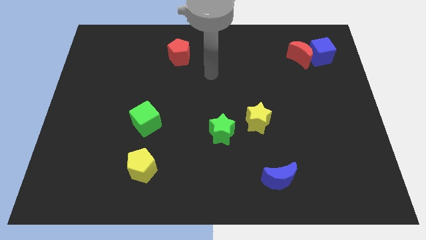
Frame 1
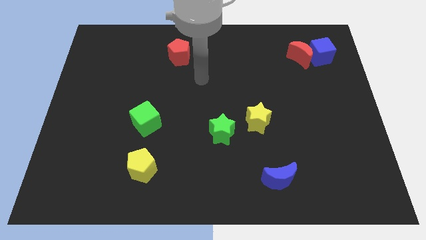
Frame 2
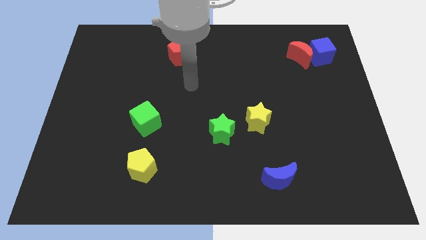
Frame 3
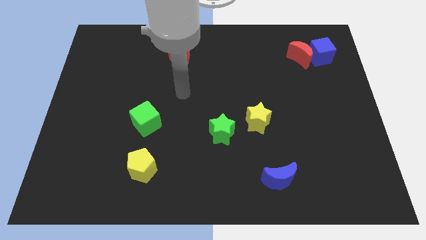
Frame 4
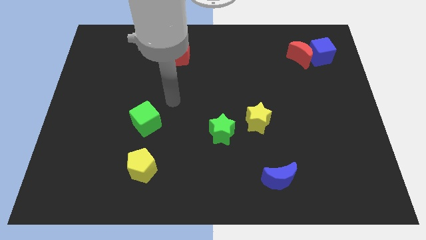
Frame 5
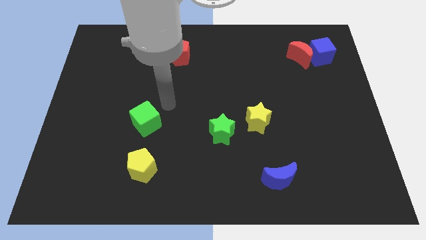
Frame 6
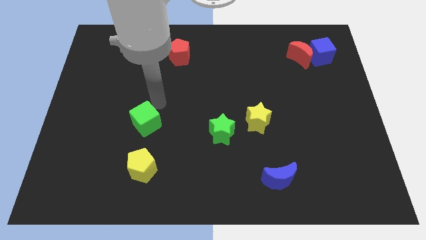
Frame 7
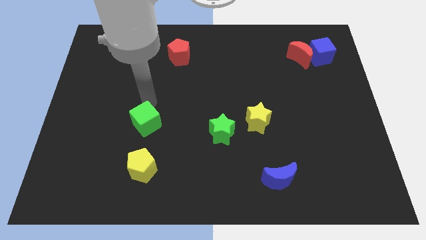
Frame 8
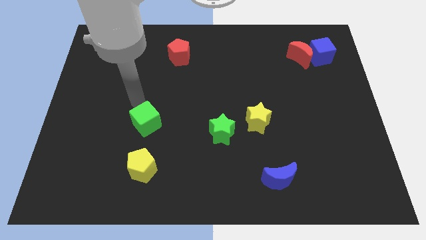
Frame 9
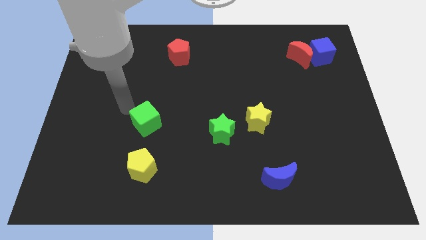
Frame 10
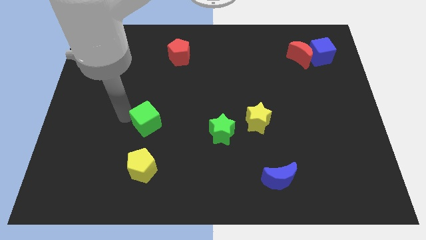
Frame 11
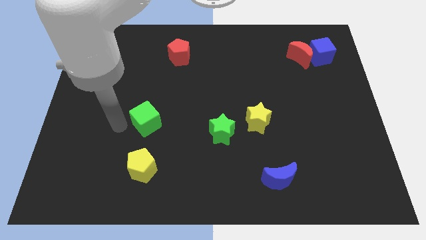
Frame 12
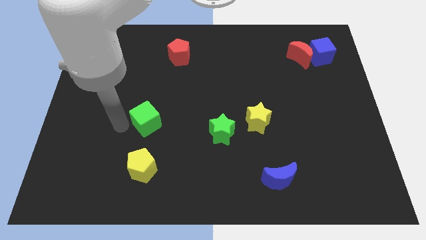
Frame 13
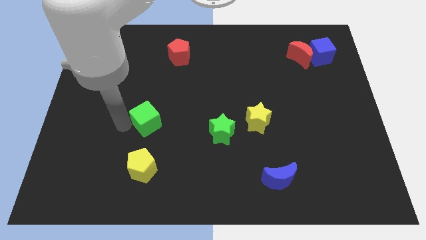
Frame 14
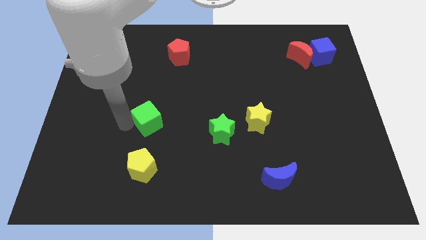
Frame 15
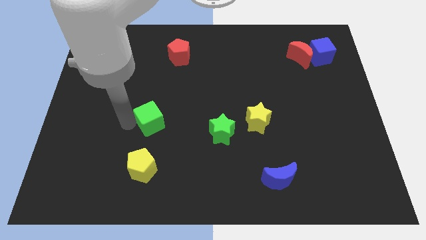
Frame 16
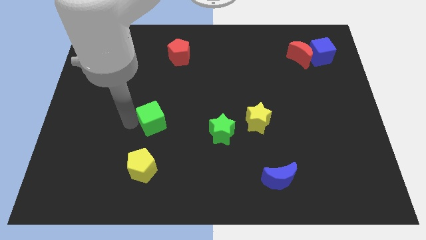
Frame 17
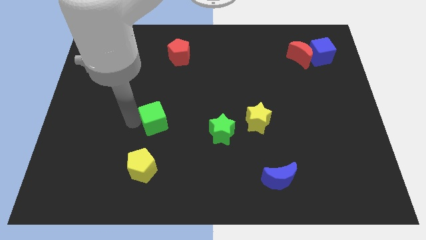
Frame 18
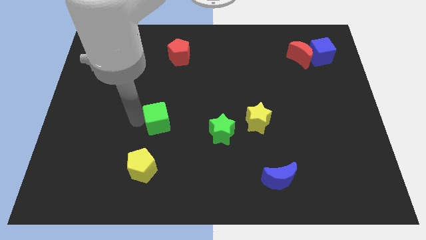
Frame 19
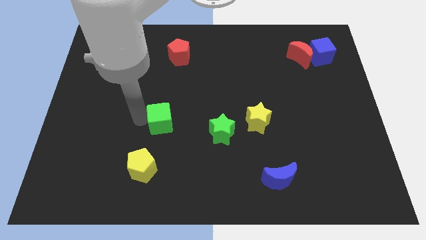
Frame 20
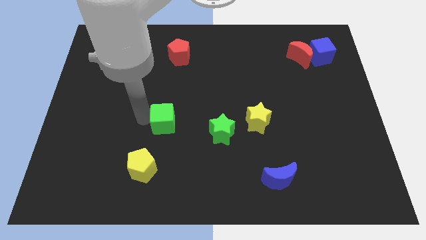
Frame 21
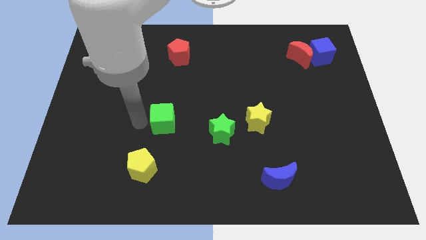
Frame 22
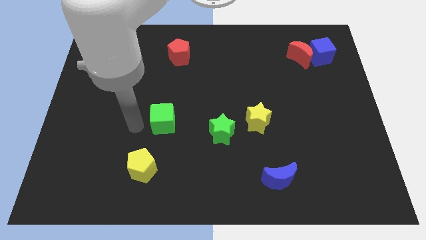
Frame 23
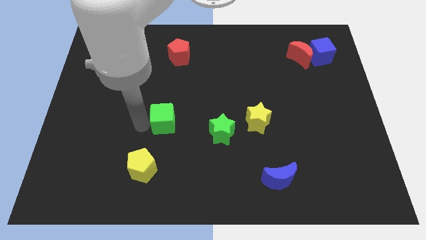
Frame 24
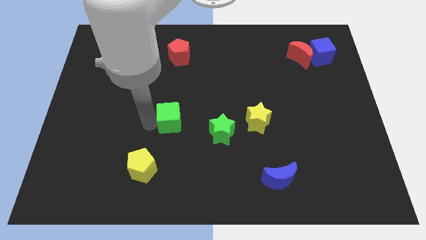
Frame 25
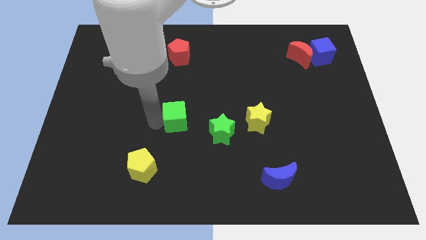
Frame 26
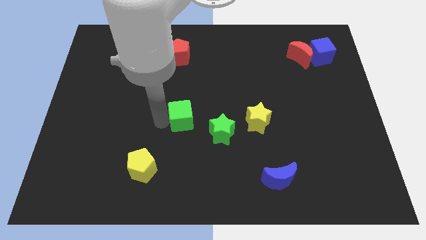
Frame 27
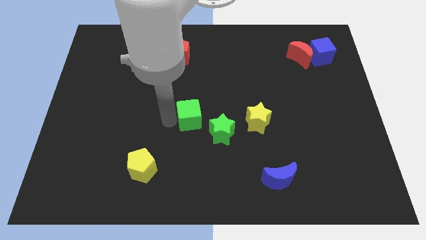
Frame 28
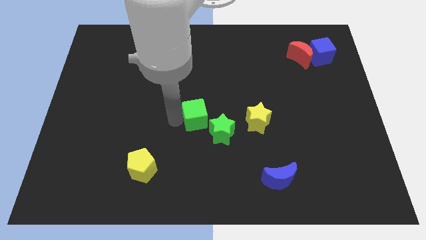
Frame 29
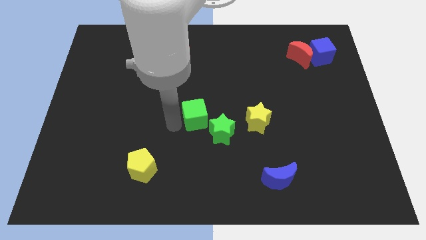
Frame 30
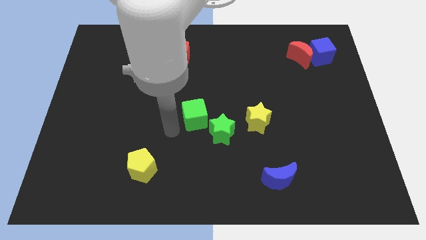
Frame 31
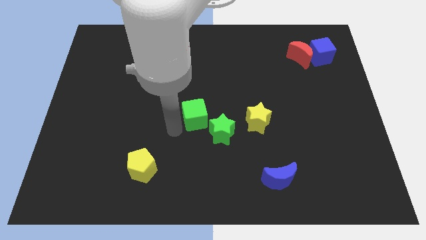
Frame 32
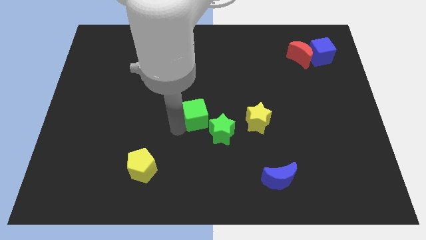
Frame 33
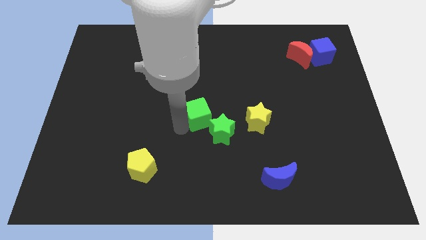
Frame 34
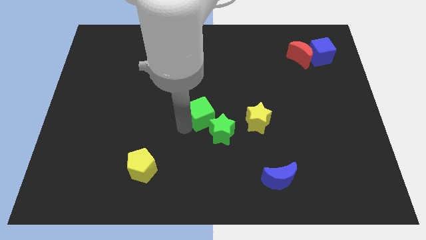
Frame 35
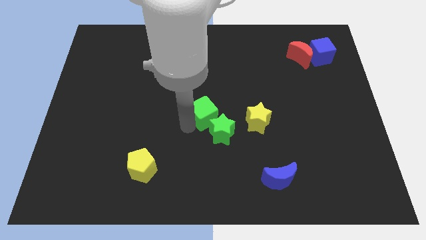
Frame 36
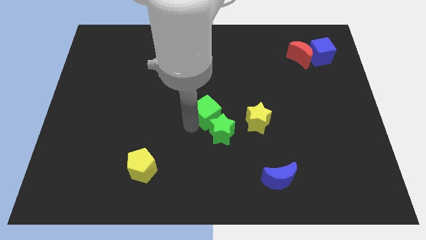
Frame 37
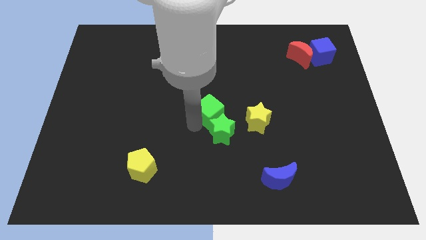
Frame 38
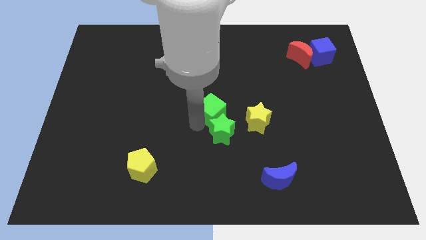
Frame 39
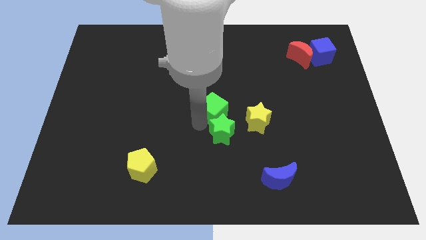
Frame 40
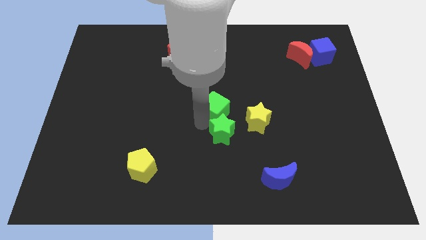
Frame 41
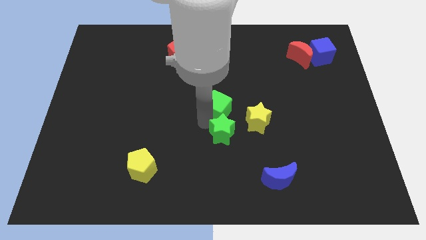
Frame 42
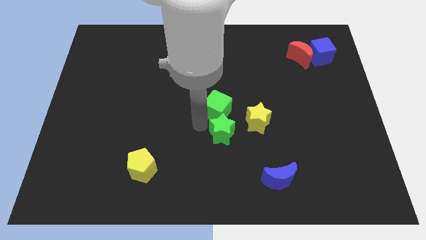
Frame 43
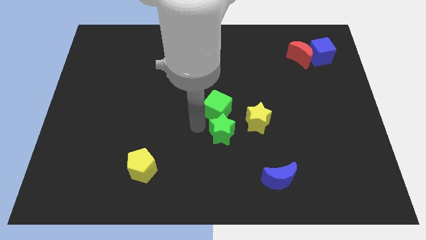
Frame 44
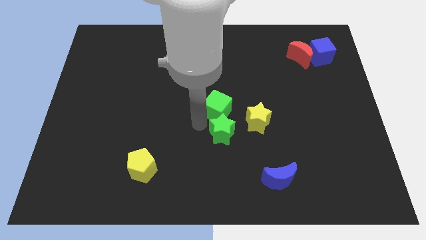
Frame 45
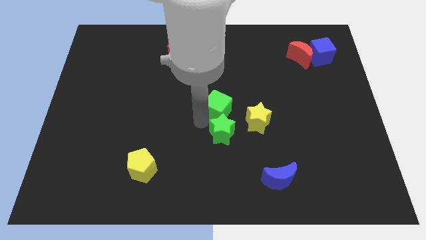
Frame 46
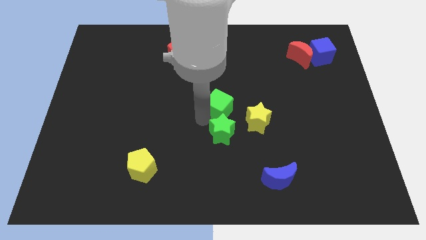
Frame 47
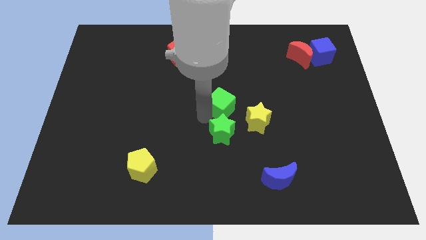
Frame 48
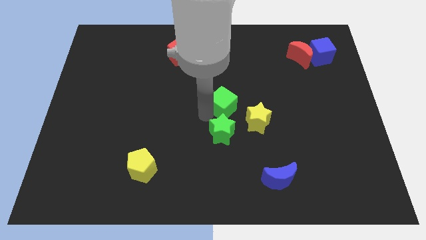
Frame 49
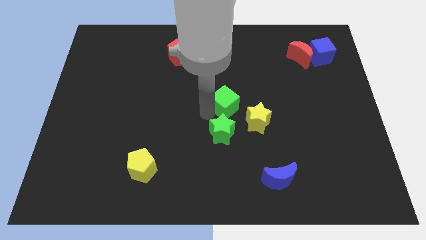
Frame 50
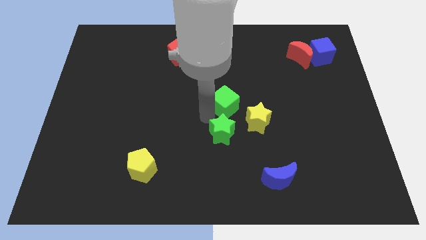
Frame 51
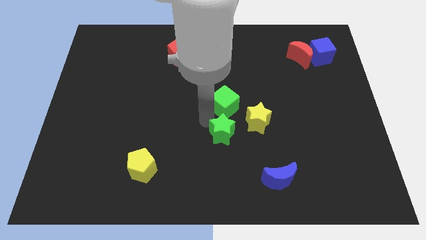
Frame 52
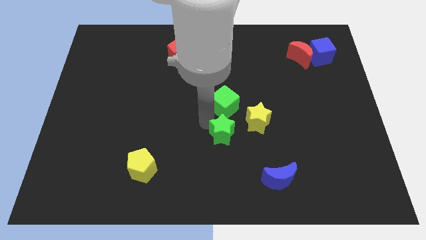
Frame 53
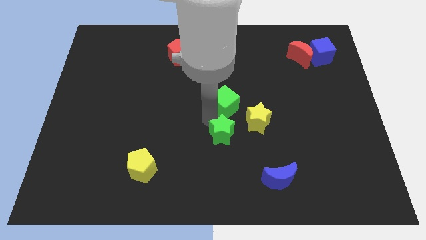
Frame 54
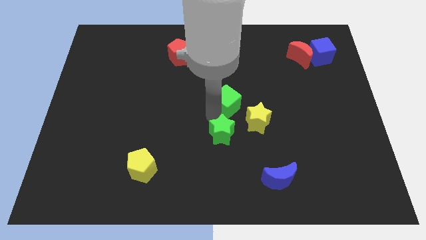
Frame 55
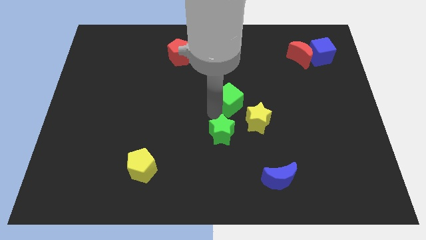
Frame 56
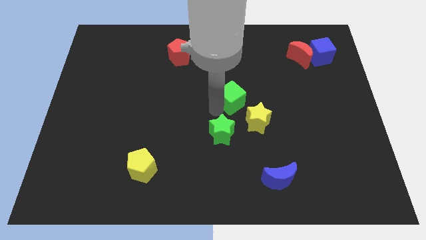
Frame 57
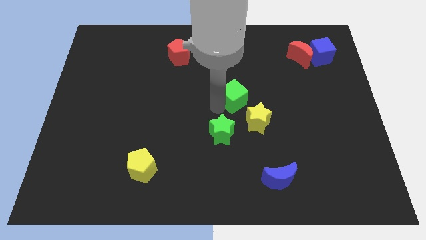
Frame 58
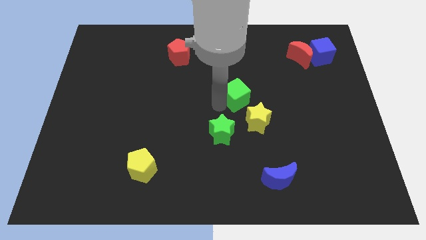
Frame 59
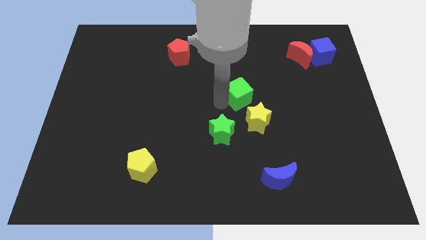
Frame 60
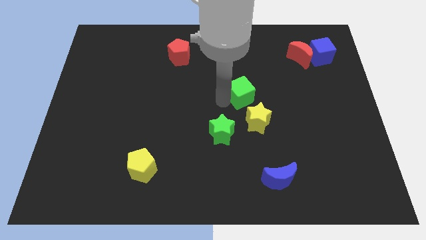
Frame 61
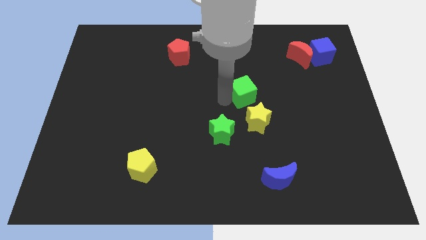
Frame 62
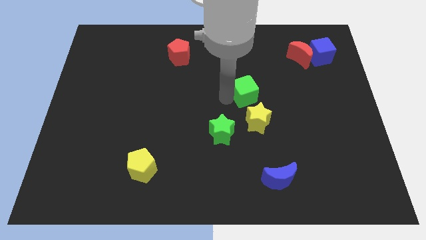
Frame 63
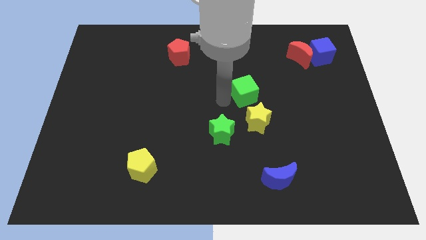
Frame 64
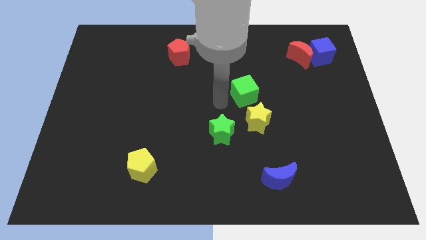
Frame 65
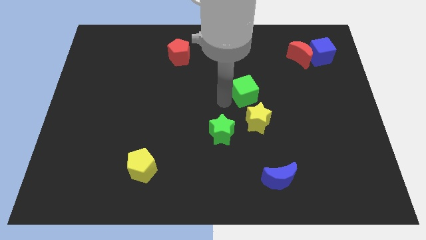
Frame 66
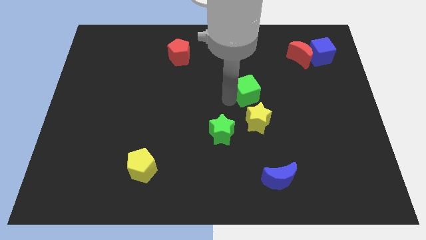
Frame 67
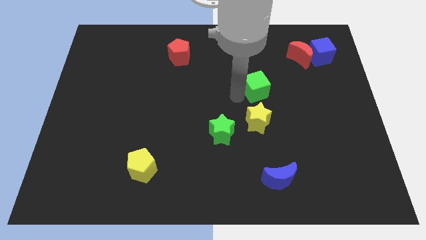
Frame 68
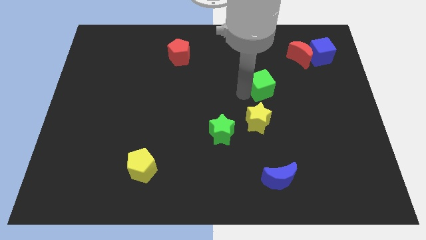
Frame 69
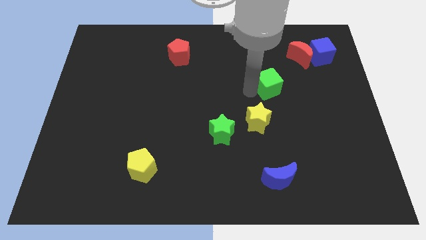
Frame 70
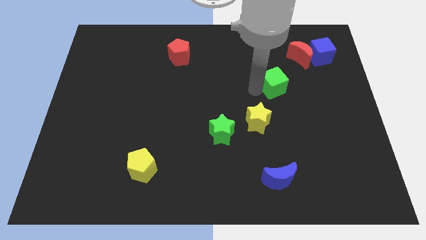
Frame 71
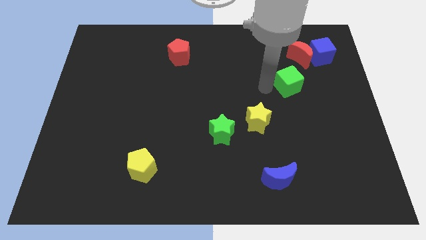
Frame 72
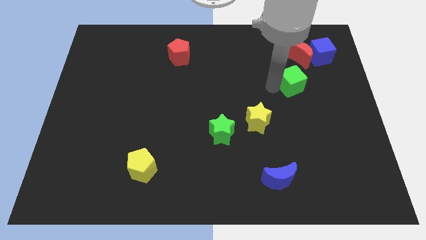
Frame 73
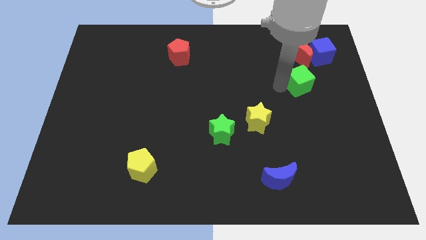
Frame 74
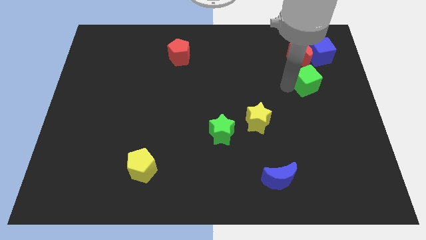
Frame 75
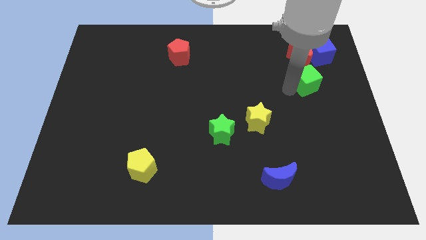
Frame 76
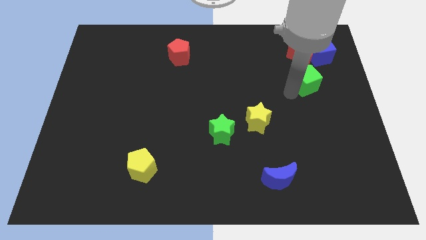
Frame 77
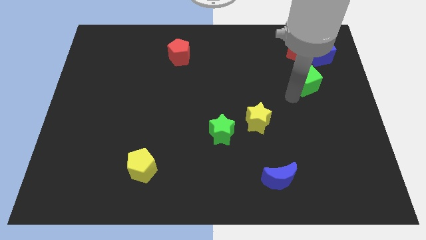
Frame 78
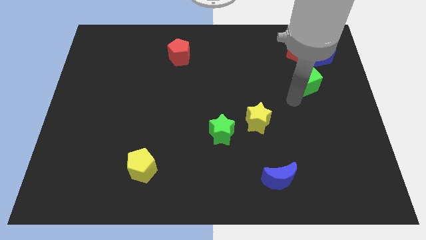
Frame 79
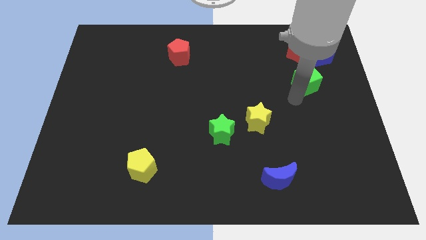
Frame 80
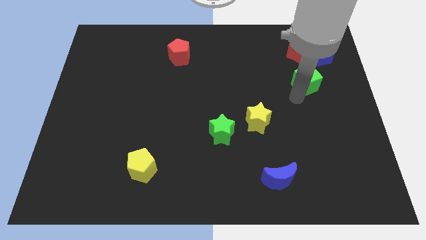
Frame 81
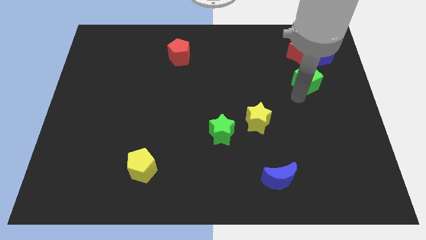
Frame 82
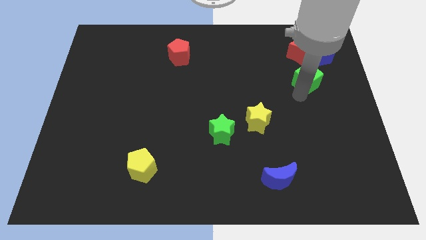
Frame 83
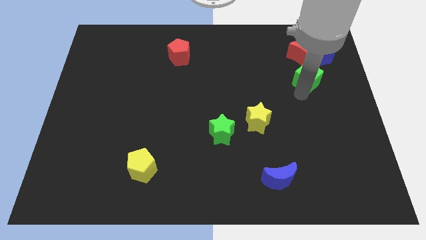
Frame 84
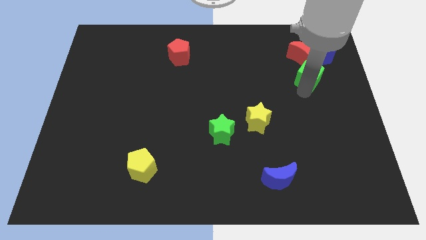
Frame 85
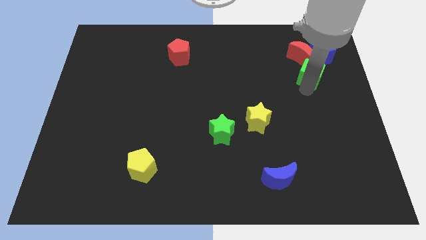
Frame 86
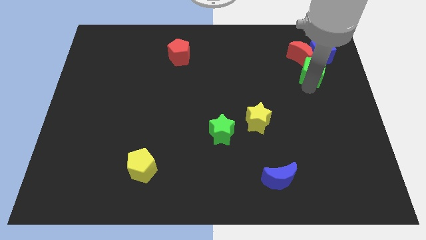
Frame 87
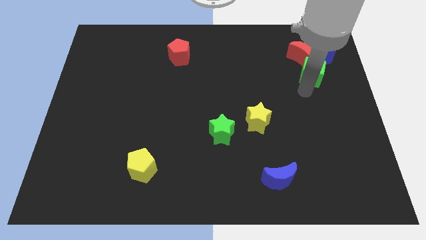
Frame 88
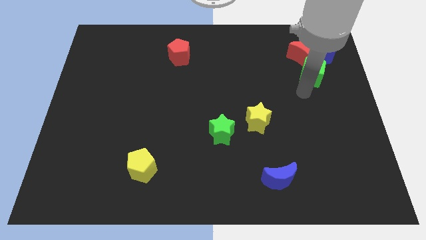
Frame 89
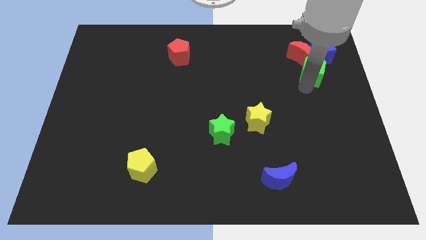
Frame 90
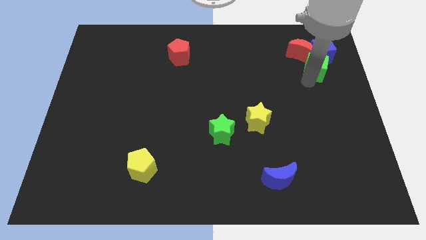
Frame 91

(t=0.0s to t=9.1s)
slide the green cube close to the blue cube
